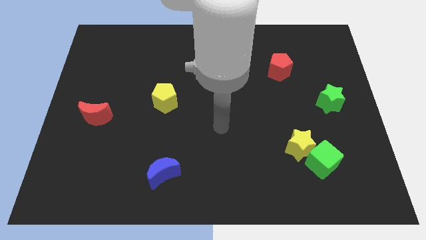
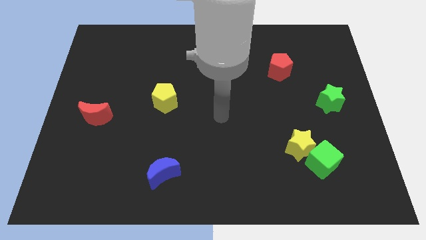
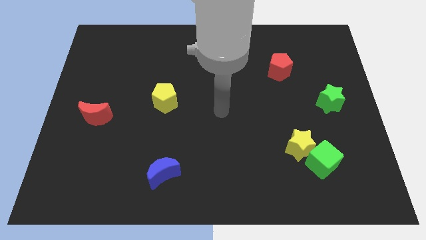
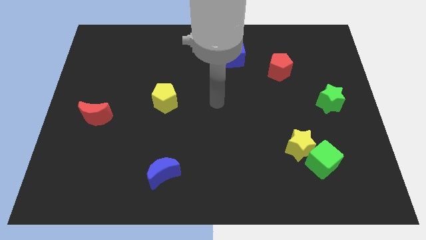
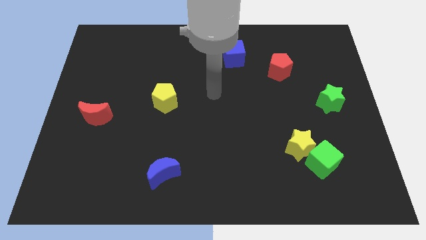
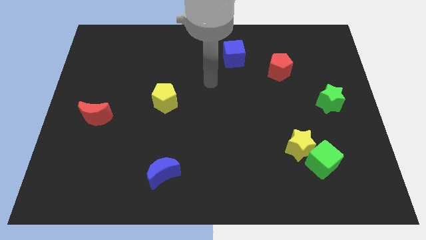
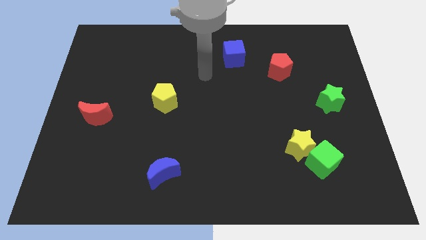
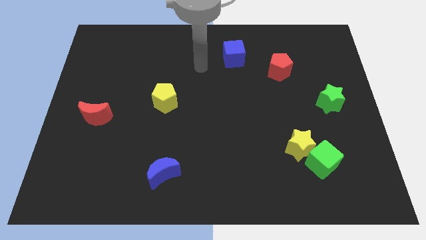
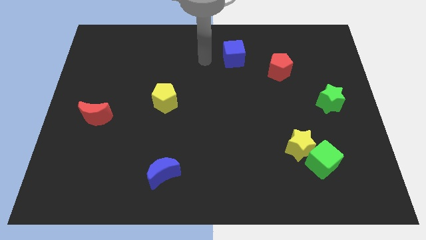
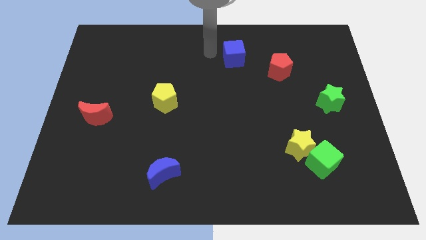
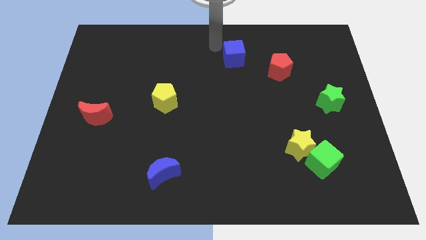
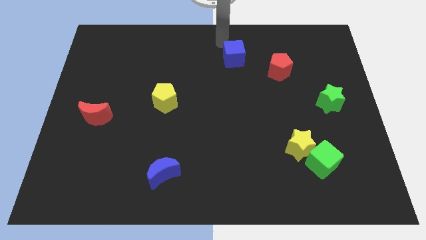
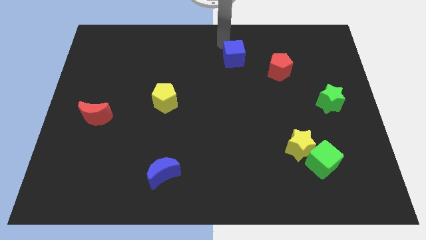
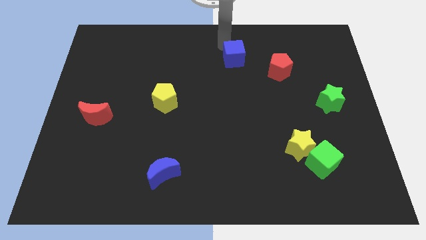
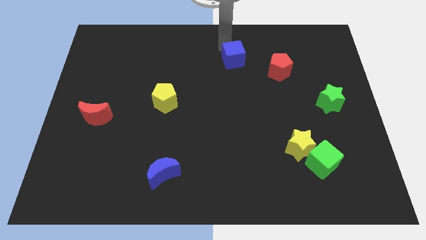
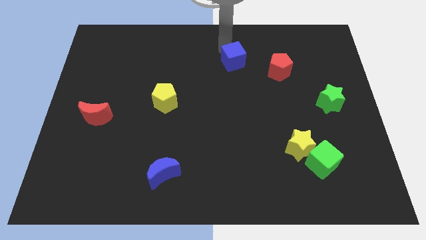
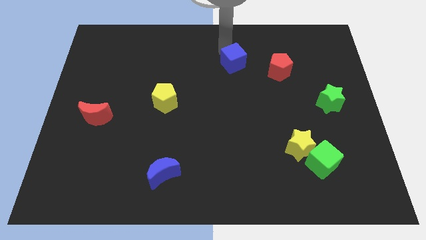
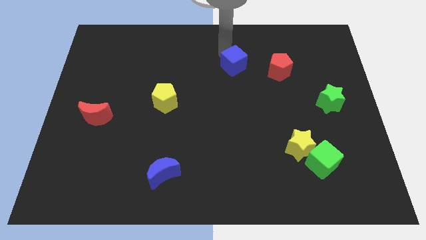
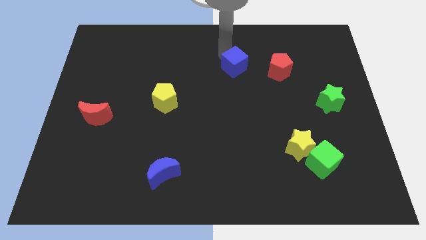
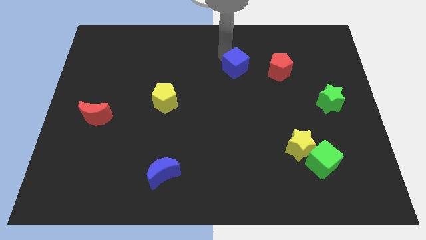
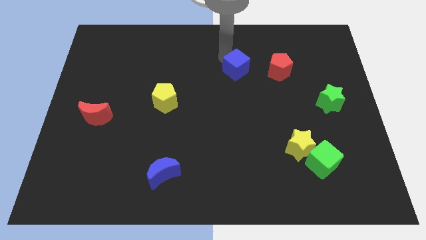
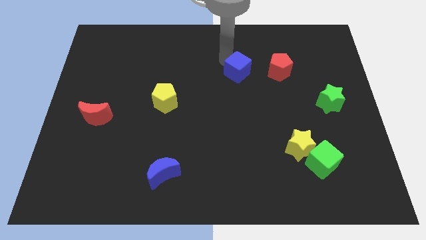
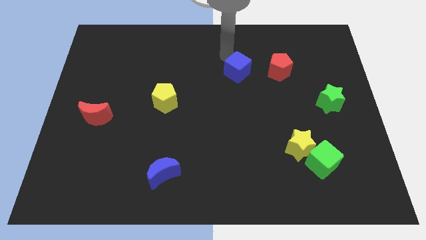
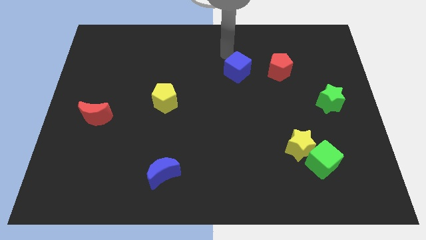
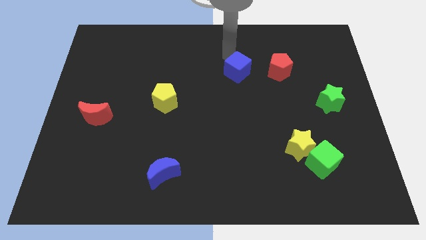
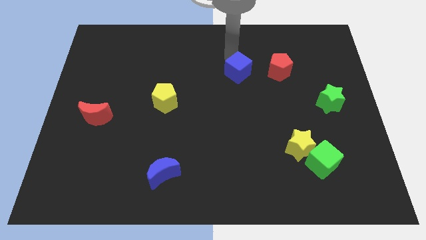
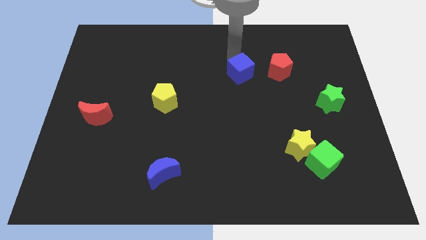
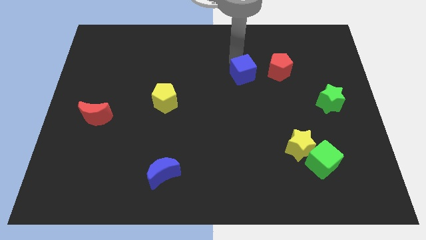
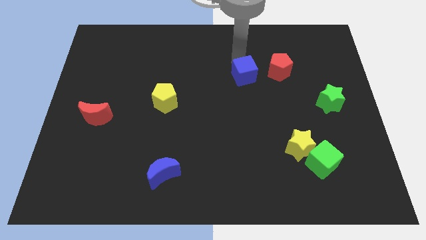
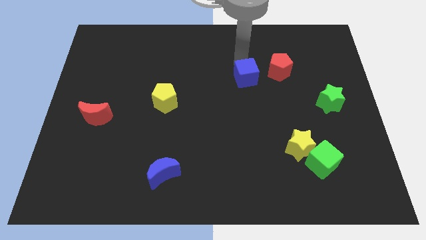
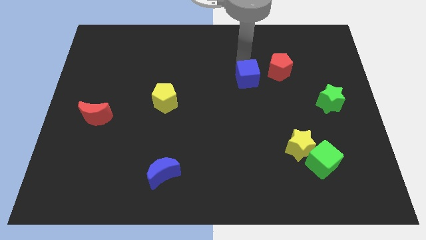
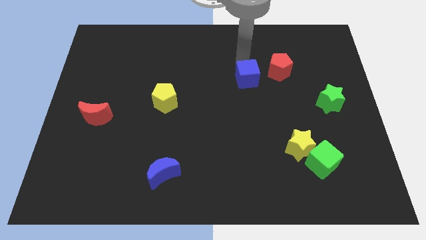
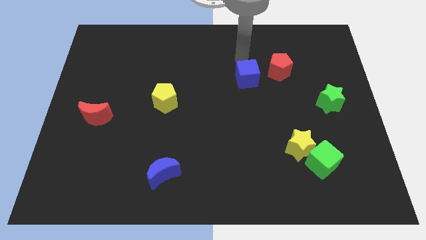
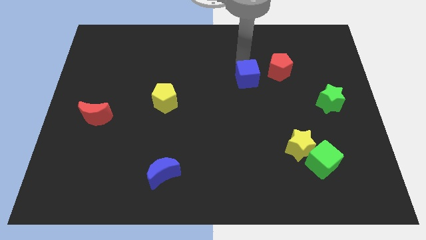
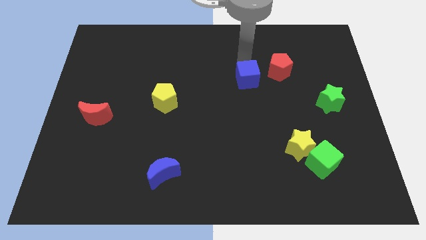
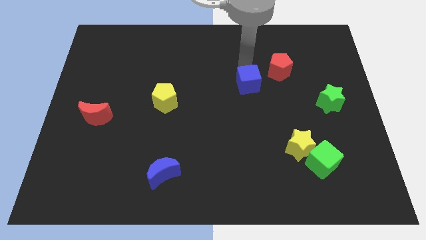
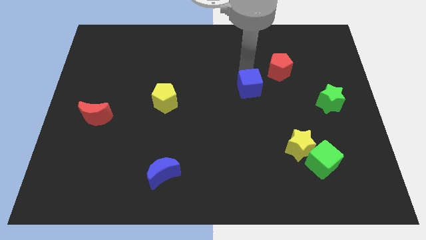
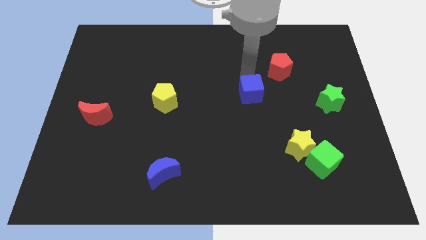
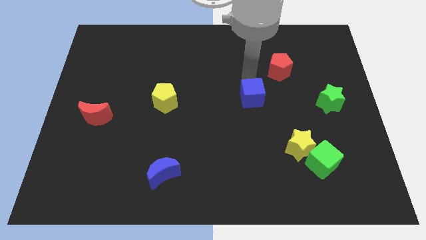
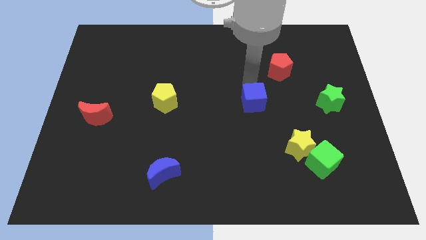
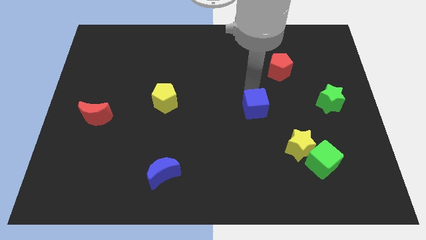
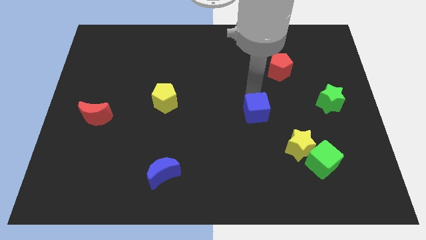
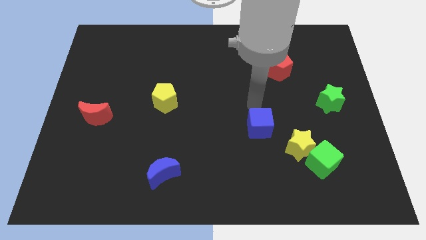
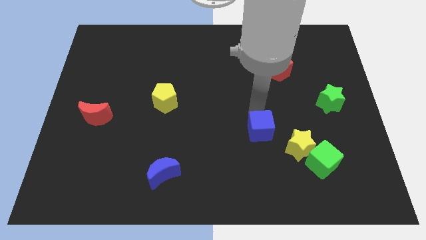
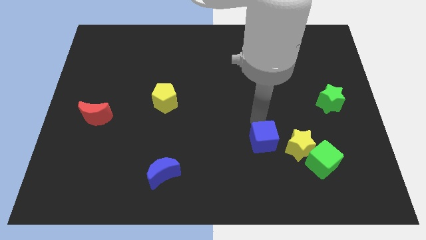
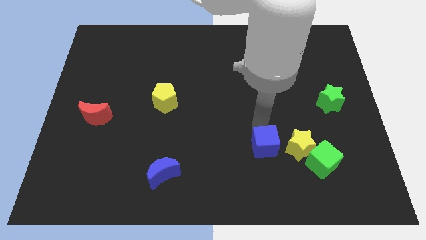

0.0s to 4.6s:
put the blue cube to the left of the green cube

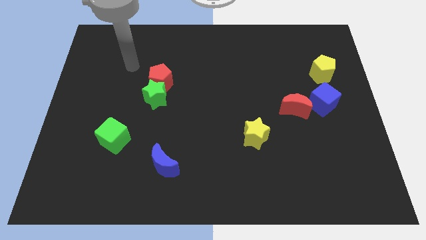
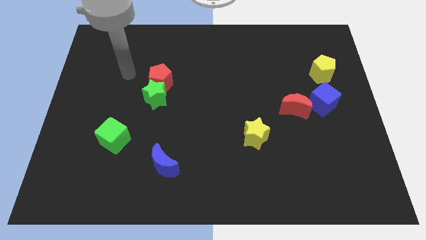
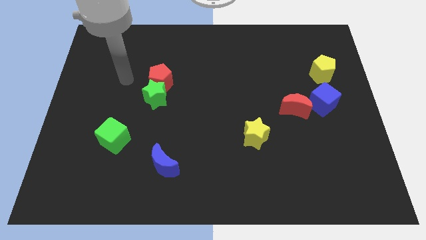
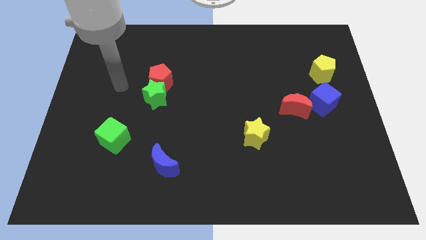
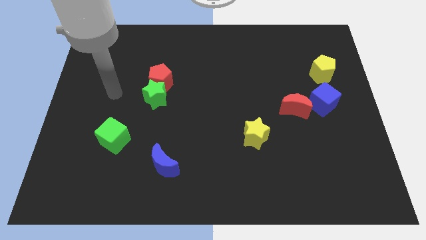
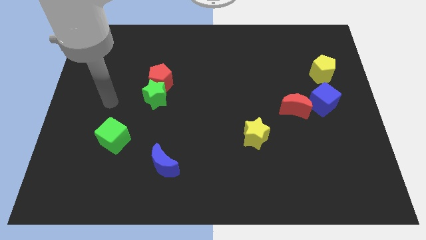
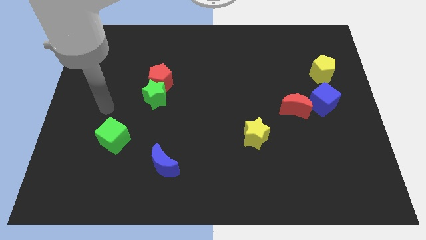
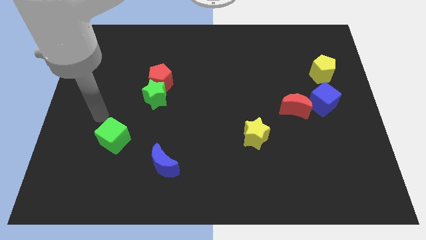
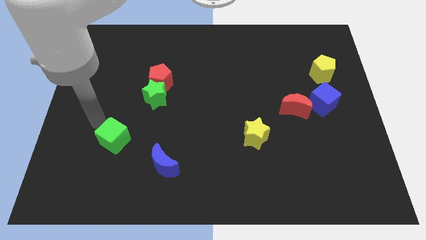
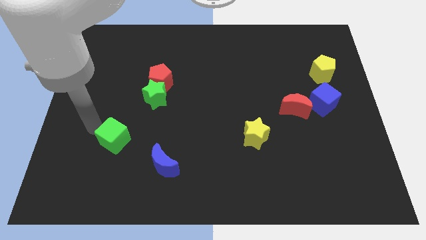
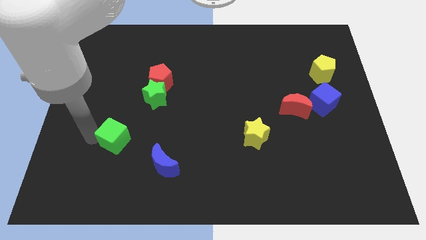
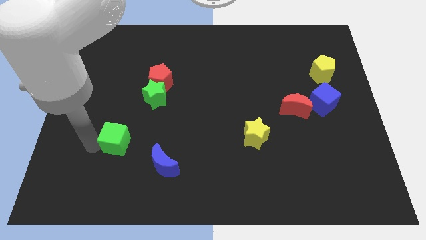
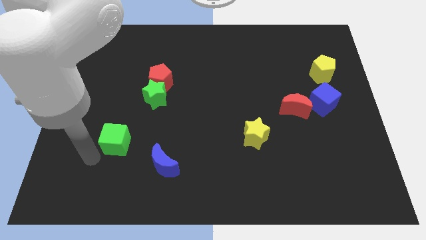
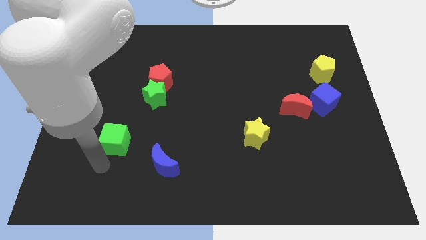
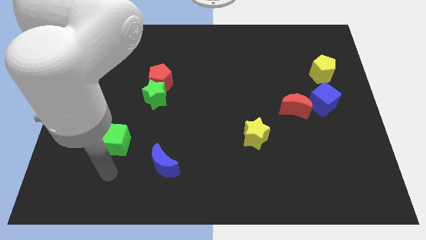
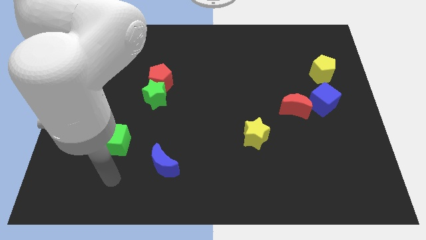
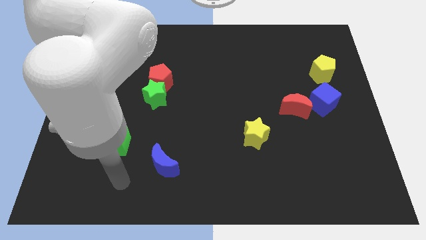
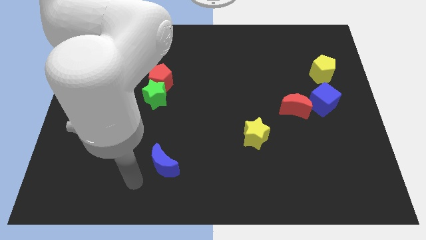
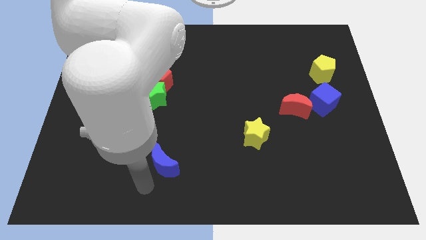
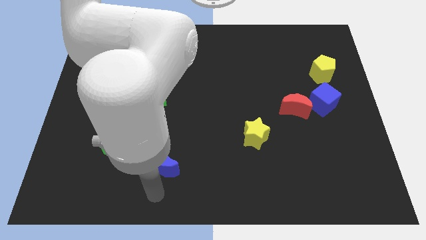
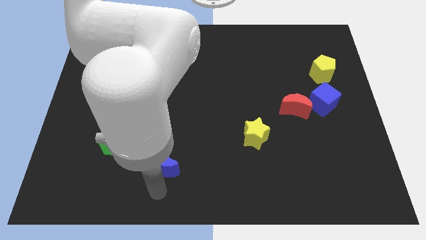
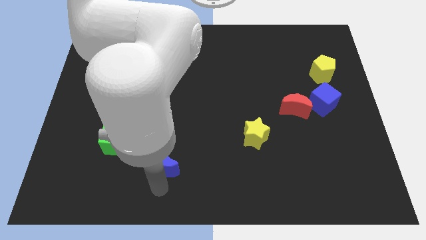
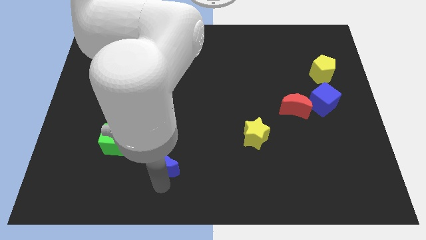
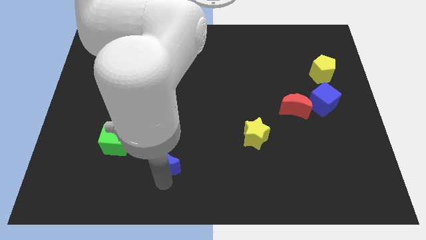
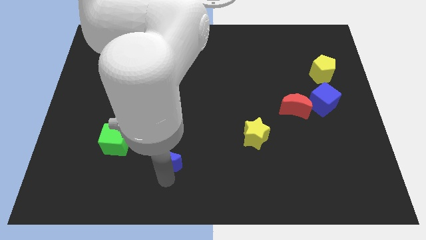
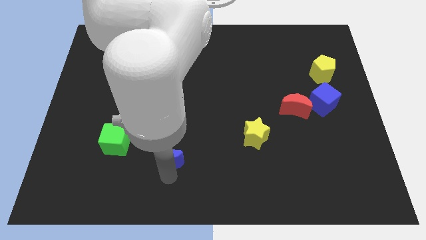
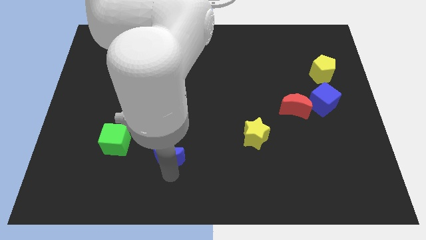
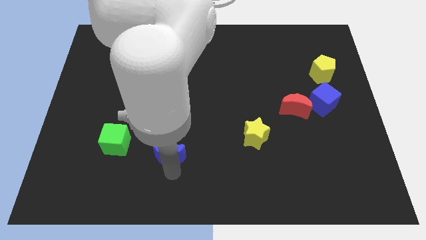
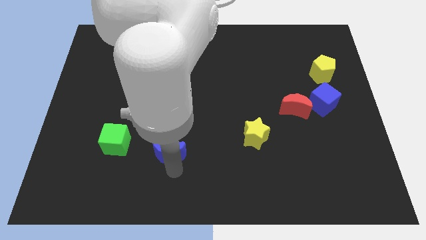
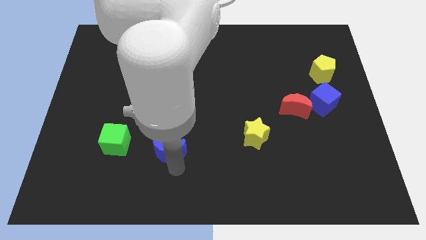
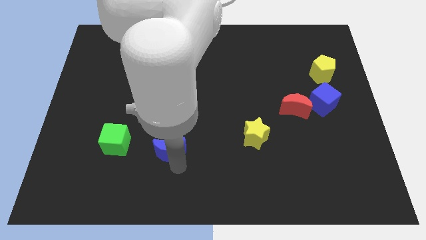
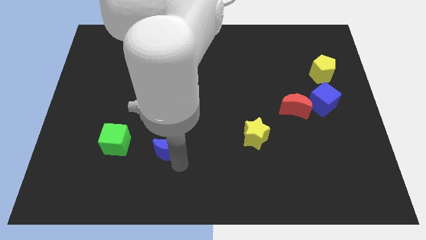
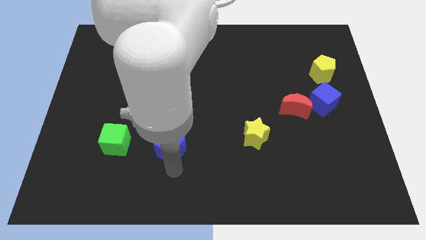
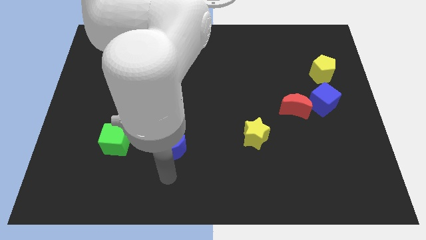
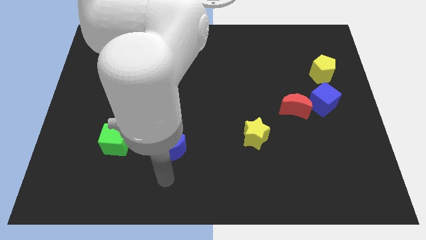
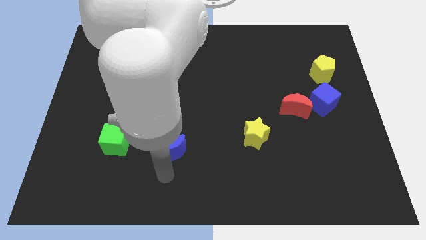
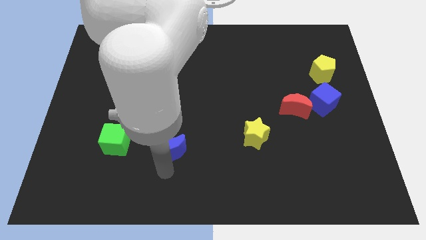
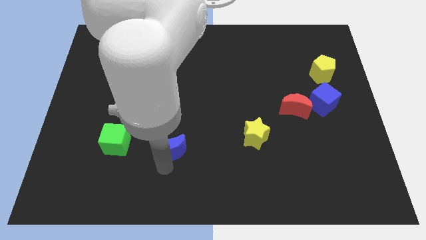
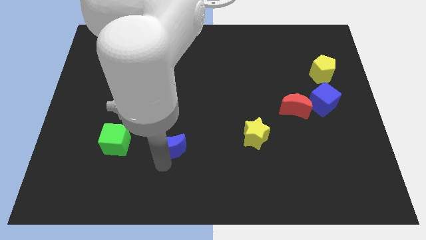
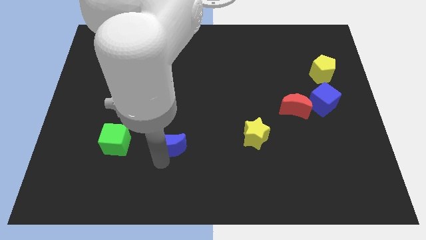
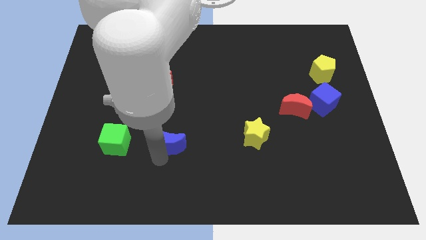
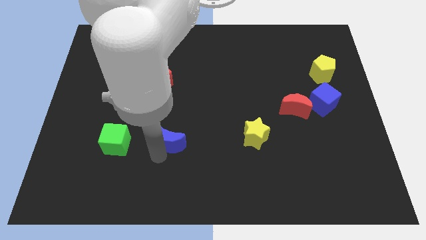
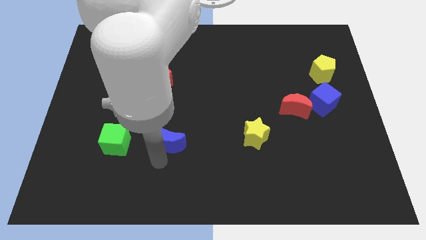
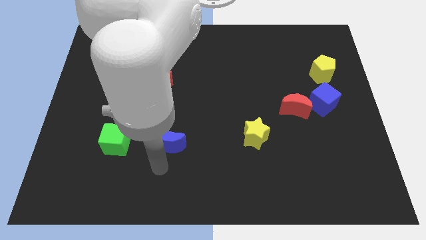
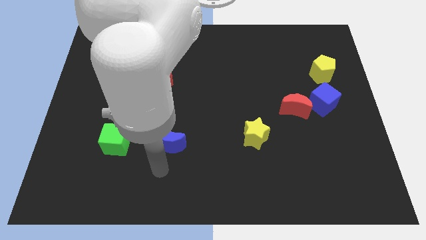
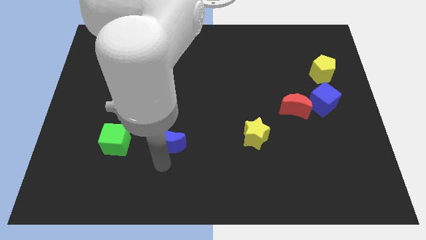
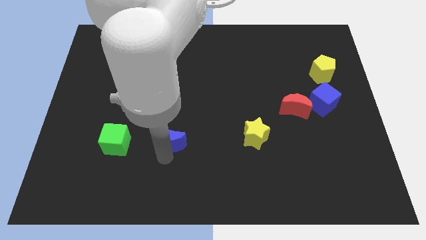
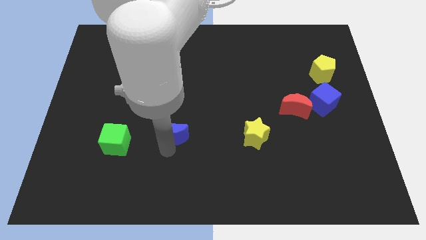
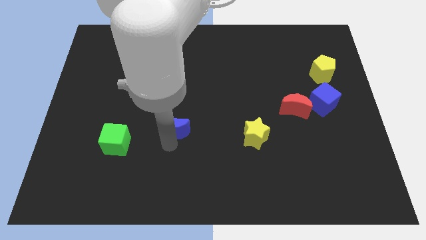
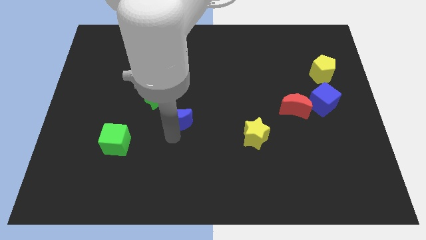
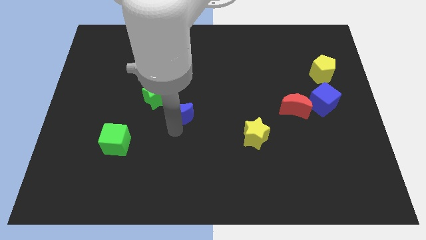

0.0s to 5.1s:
slide the blue moon to the bottom right of the red pentagon
